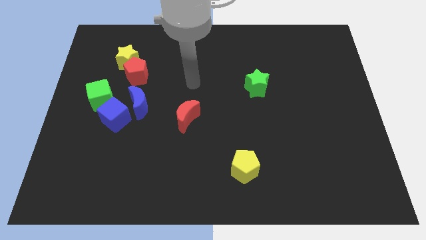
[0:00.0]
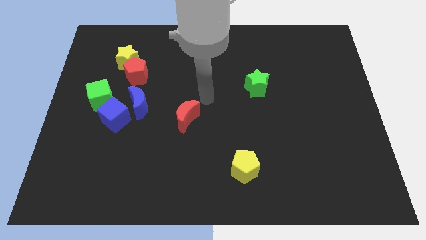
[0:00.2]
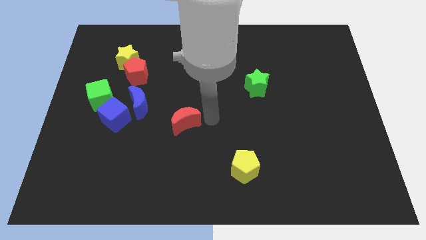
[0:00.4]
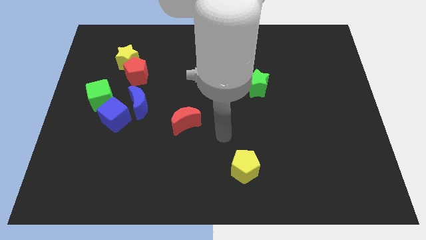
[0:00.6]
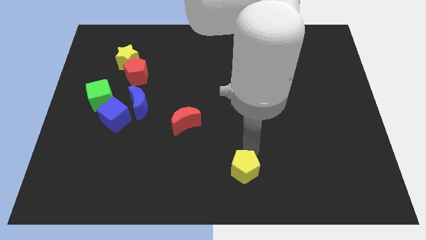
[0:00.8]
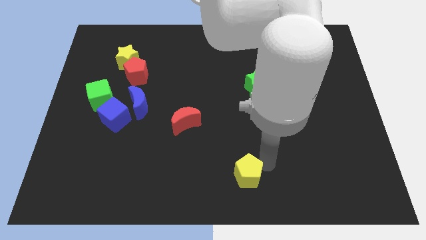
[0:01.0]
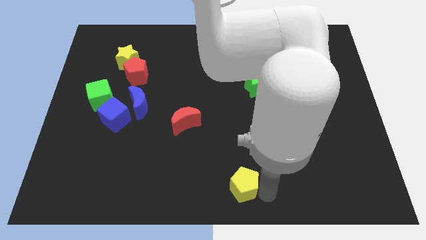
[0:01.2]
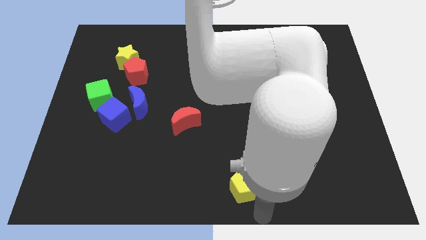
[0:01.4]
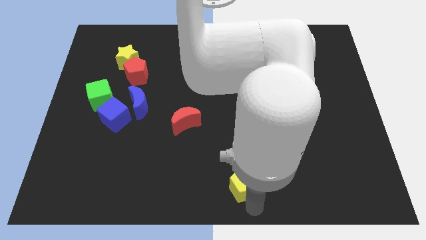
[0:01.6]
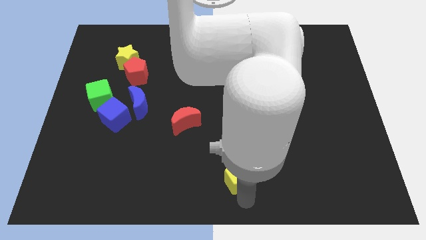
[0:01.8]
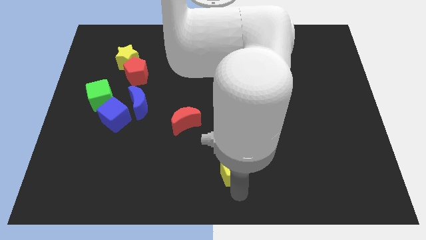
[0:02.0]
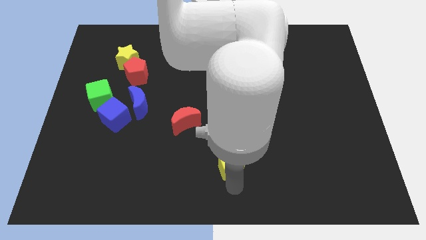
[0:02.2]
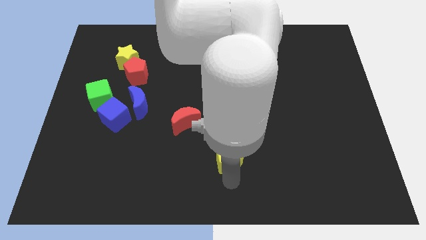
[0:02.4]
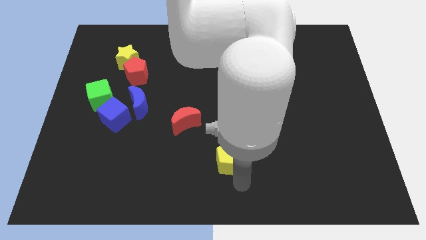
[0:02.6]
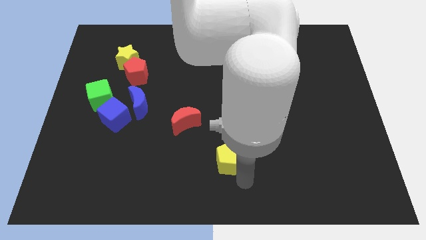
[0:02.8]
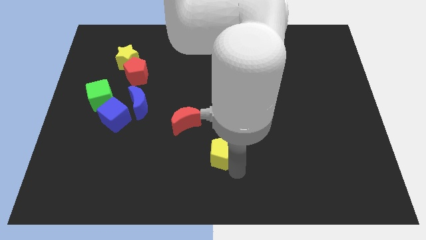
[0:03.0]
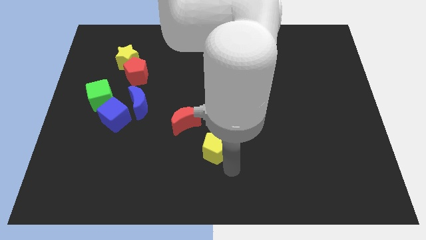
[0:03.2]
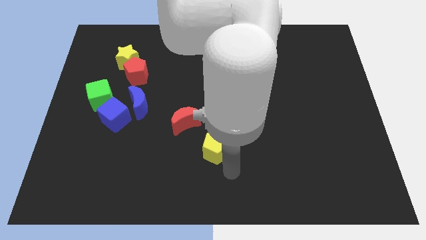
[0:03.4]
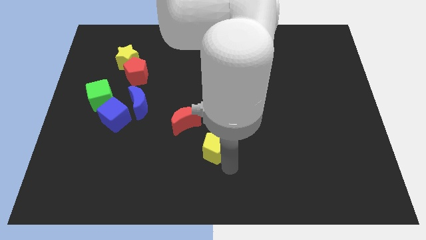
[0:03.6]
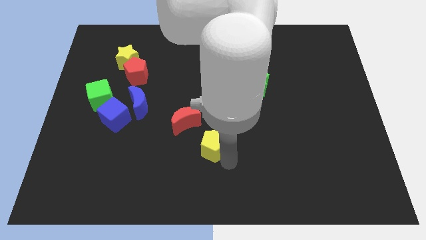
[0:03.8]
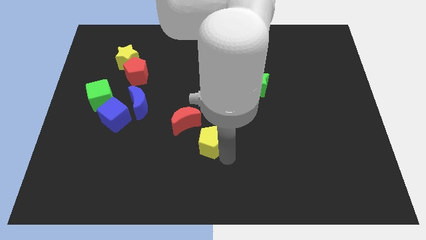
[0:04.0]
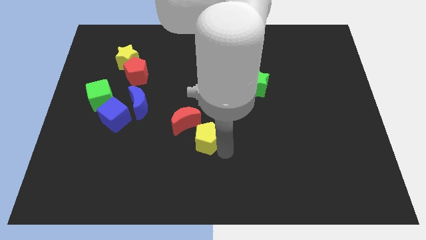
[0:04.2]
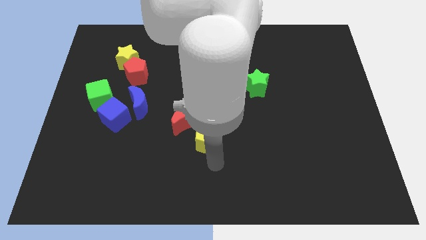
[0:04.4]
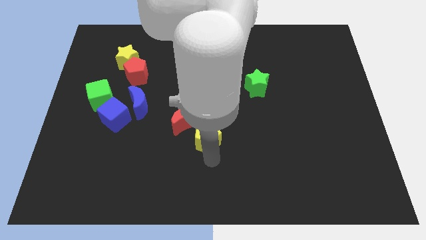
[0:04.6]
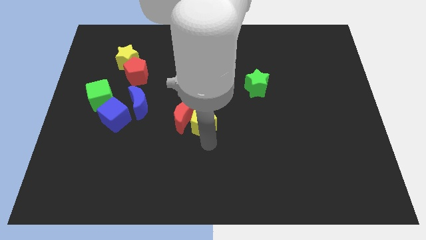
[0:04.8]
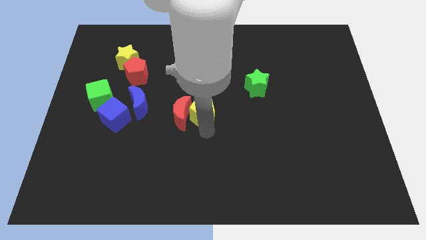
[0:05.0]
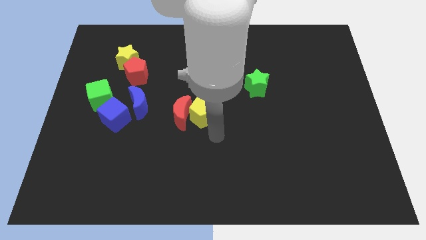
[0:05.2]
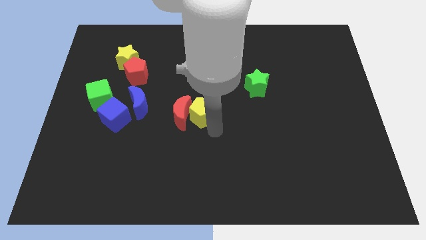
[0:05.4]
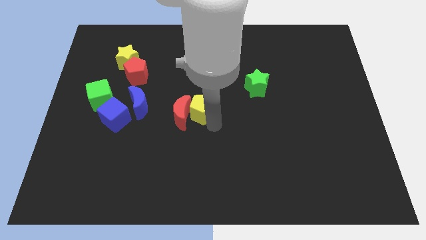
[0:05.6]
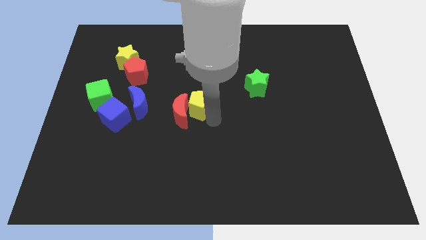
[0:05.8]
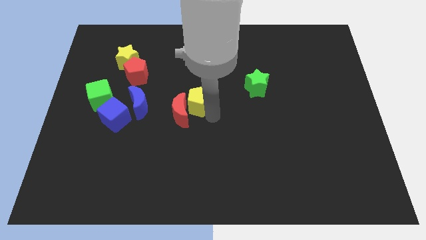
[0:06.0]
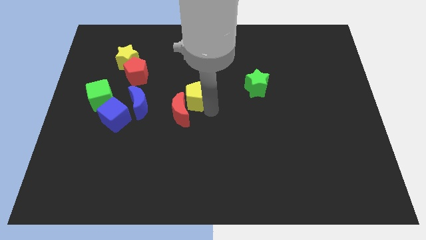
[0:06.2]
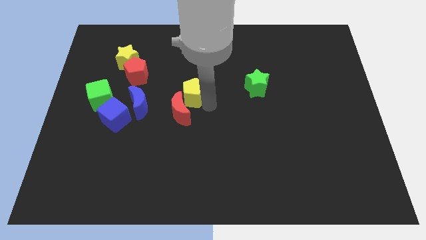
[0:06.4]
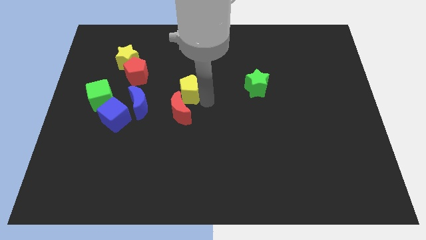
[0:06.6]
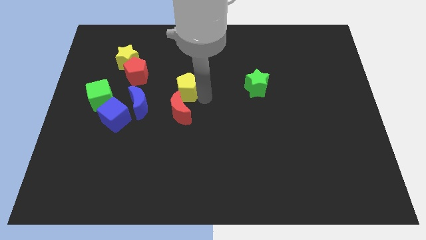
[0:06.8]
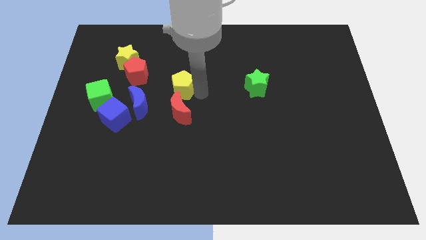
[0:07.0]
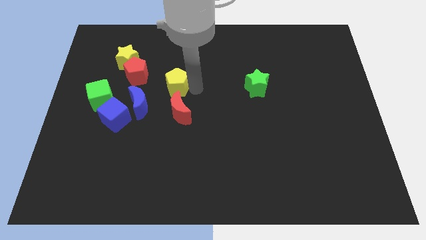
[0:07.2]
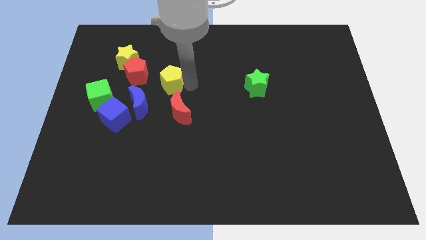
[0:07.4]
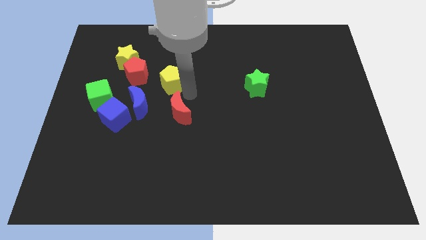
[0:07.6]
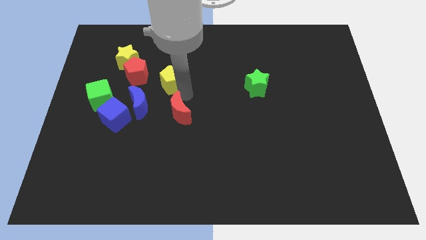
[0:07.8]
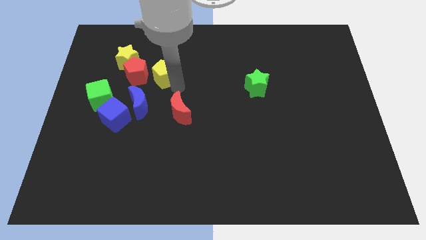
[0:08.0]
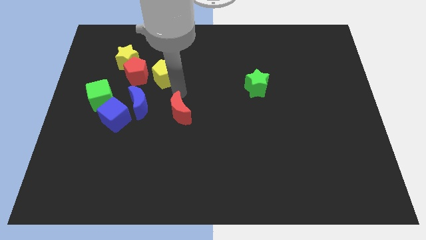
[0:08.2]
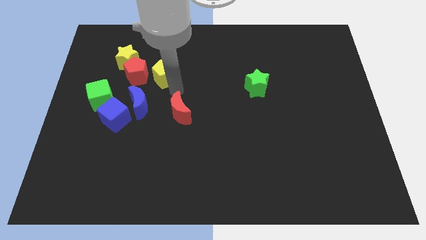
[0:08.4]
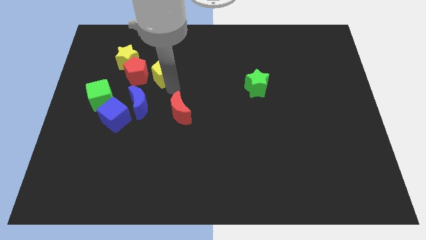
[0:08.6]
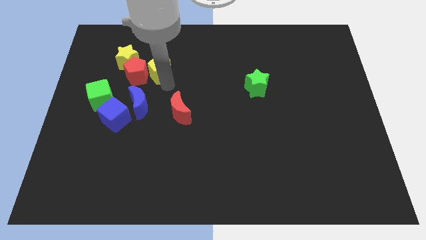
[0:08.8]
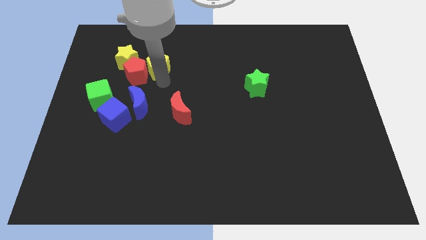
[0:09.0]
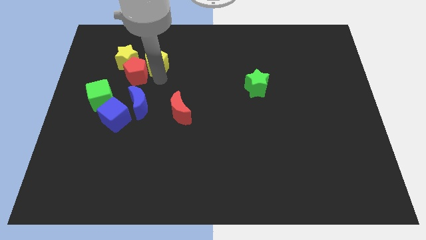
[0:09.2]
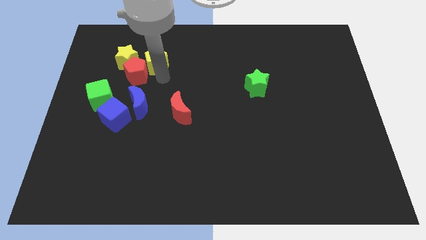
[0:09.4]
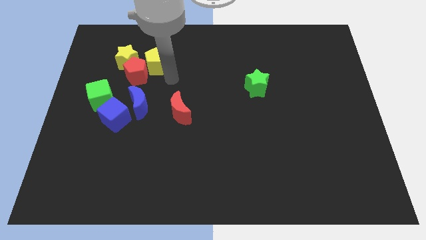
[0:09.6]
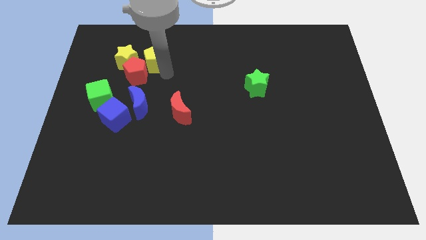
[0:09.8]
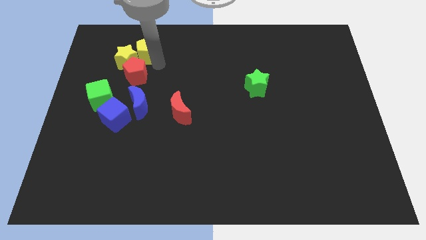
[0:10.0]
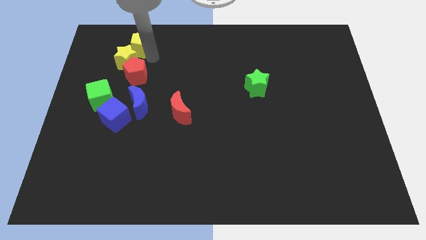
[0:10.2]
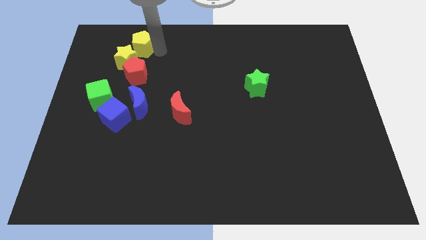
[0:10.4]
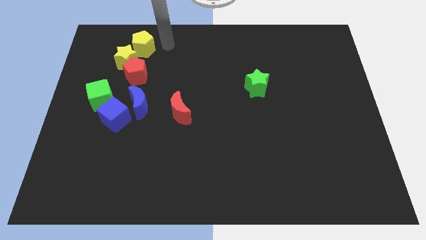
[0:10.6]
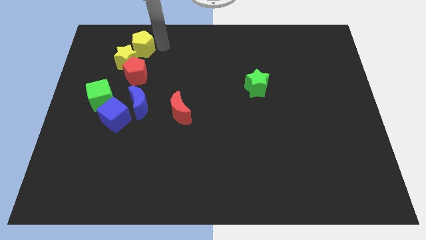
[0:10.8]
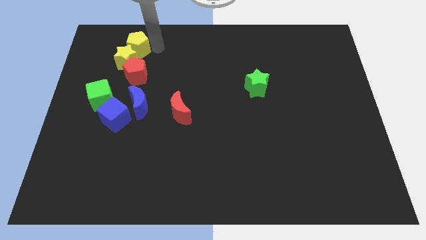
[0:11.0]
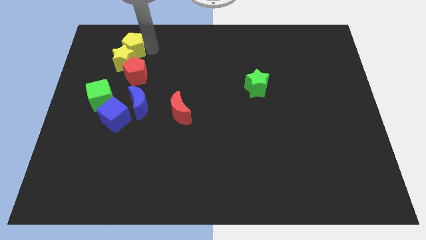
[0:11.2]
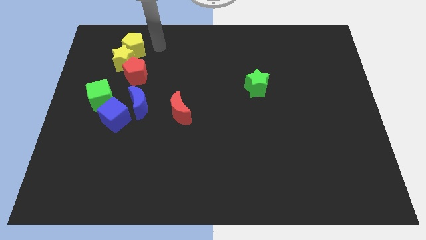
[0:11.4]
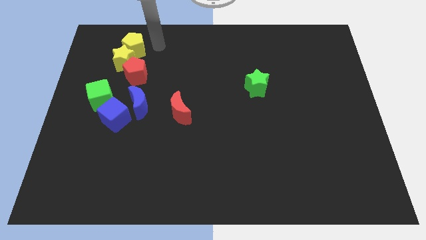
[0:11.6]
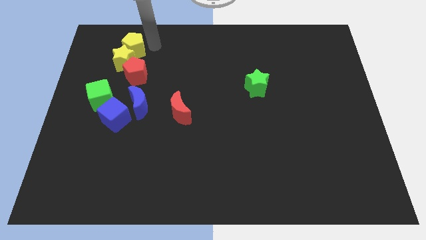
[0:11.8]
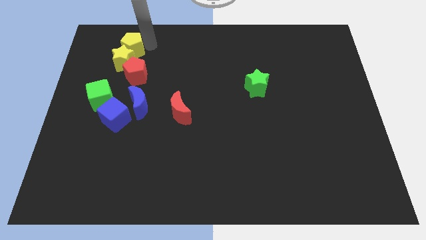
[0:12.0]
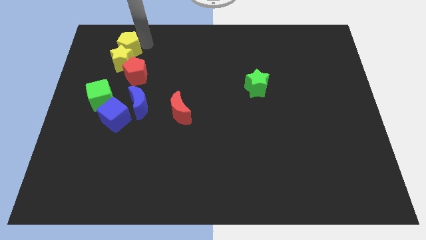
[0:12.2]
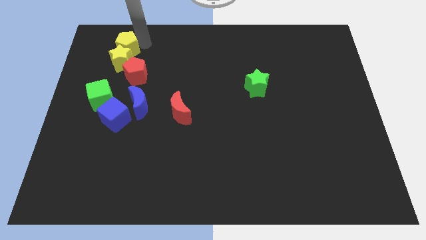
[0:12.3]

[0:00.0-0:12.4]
put the yellow pentagon diagonally up and to the left of the red pentagon
